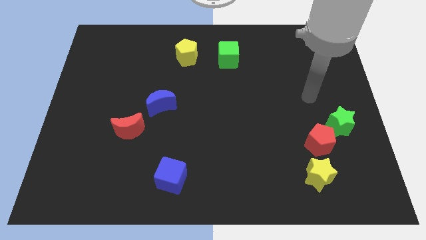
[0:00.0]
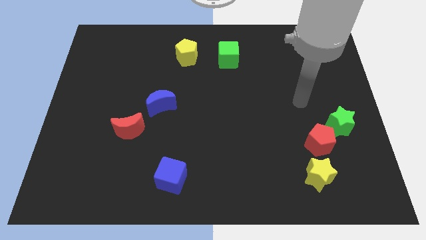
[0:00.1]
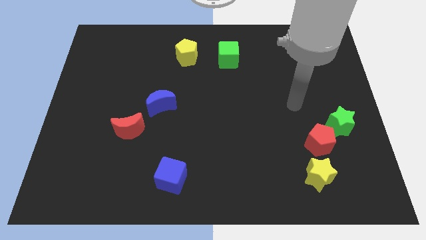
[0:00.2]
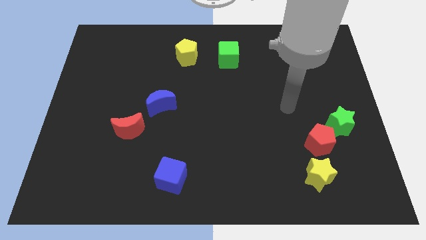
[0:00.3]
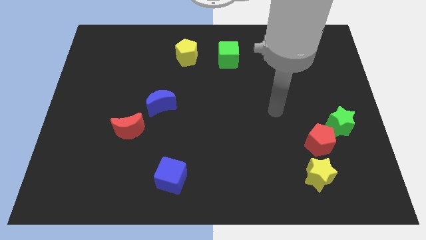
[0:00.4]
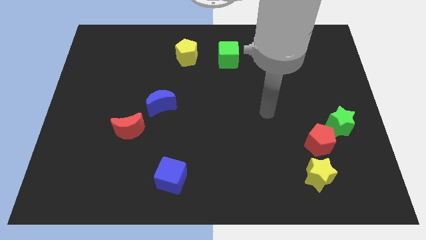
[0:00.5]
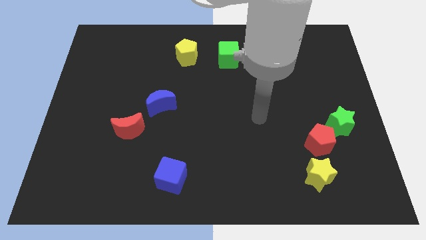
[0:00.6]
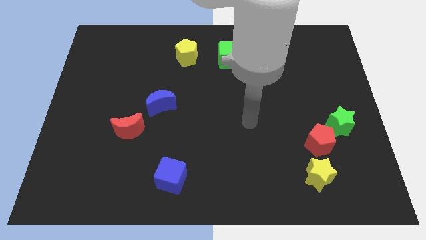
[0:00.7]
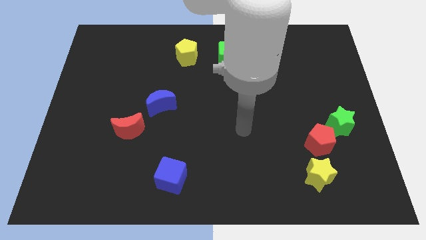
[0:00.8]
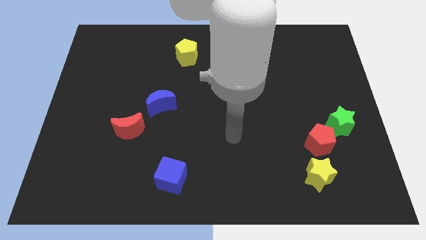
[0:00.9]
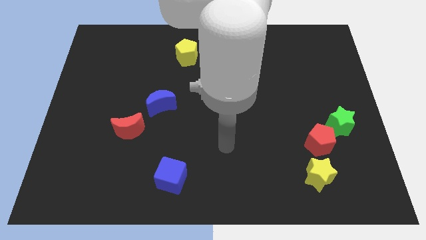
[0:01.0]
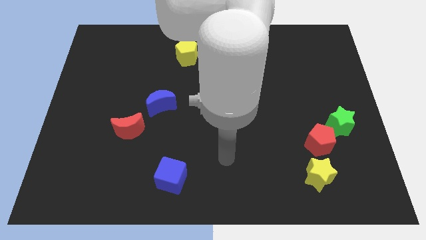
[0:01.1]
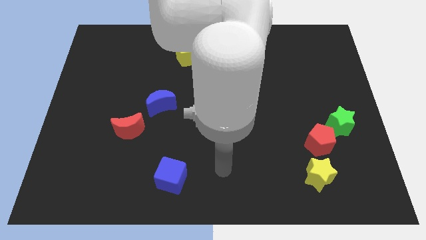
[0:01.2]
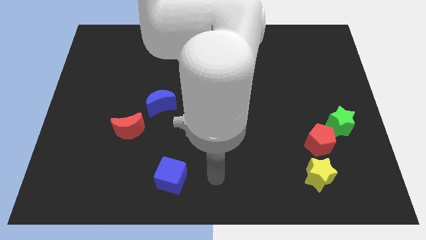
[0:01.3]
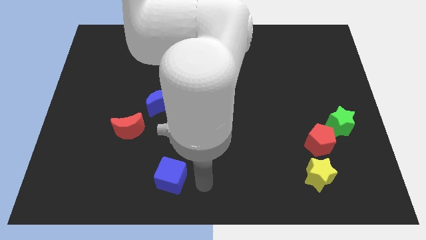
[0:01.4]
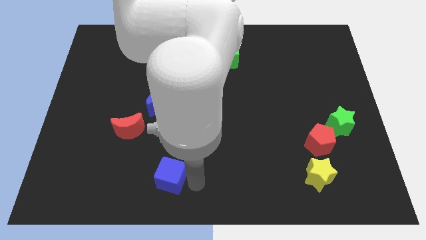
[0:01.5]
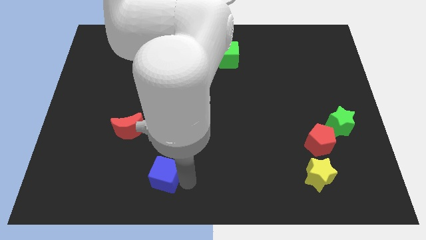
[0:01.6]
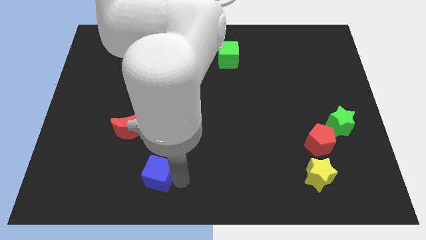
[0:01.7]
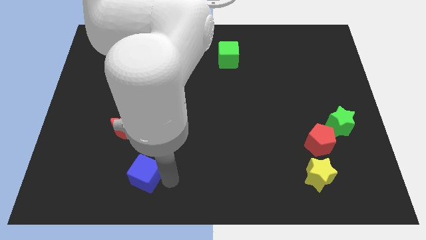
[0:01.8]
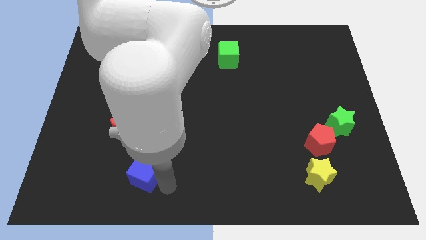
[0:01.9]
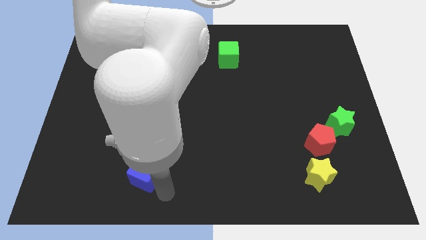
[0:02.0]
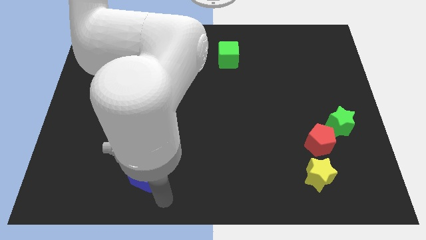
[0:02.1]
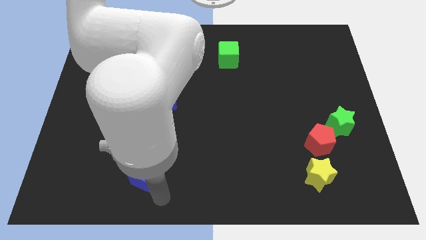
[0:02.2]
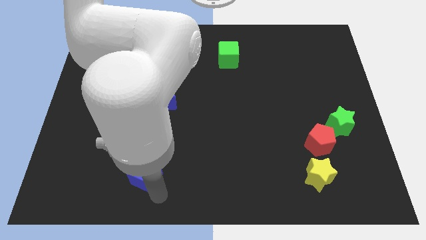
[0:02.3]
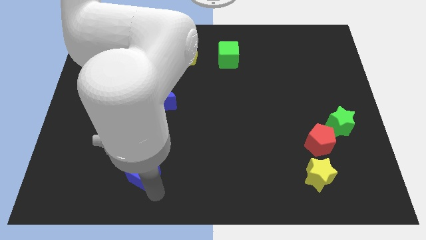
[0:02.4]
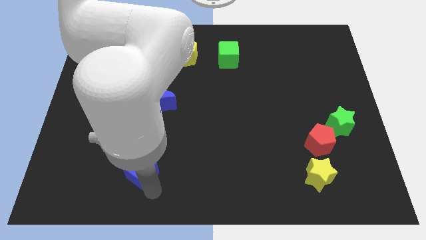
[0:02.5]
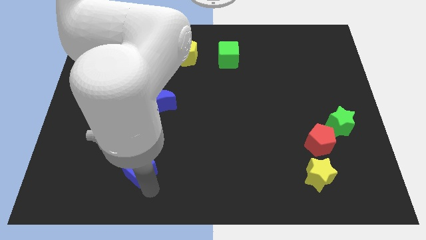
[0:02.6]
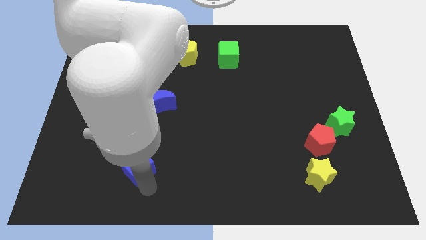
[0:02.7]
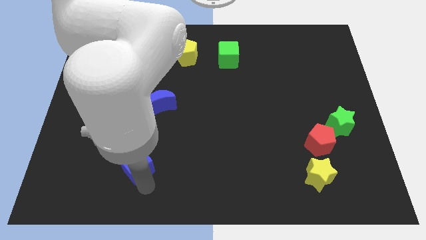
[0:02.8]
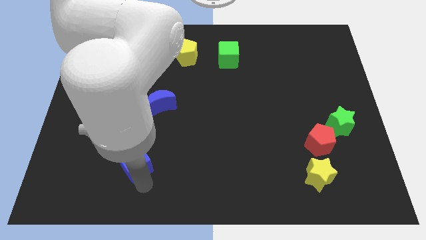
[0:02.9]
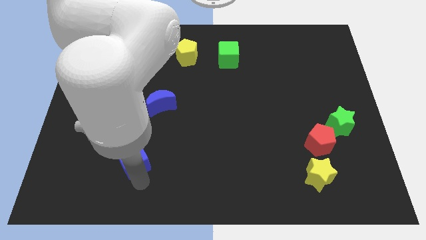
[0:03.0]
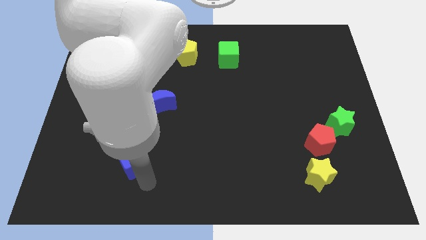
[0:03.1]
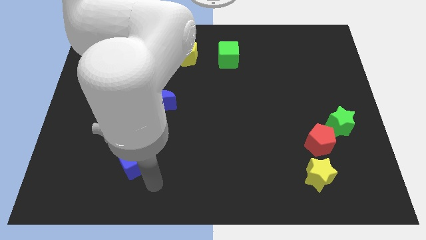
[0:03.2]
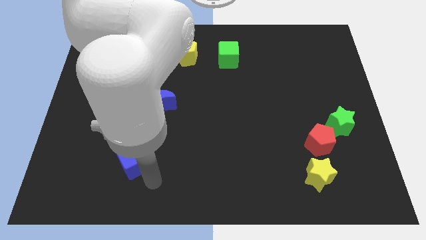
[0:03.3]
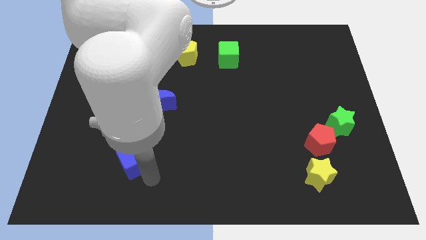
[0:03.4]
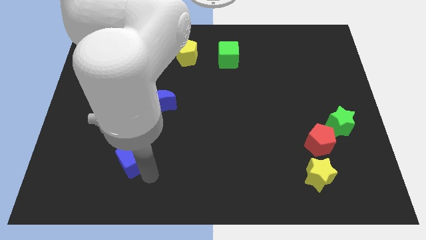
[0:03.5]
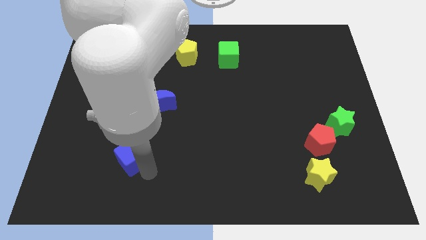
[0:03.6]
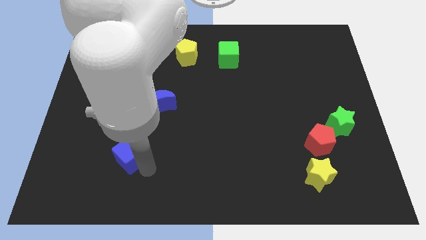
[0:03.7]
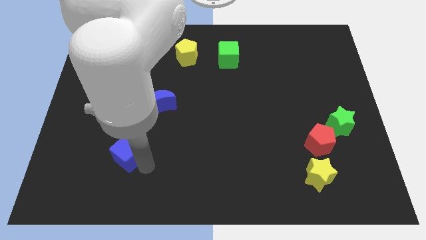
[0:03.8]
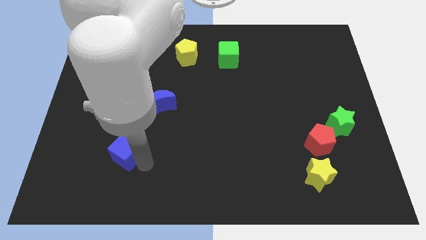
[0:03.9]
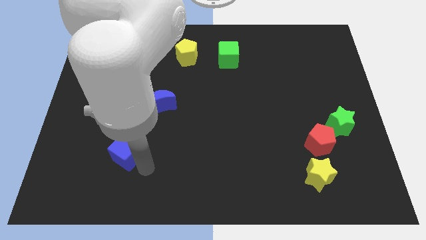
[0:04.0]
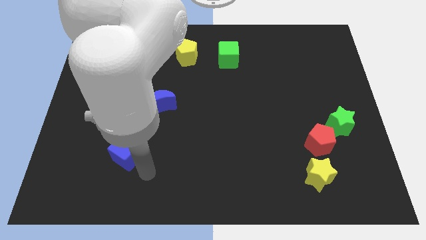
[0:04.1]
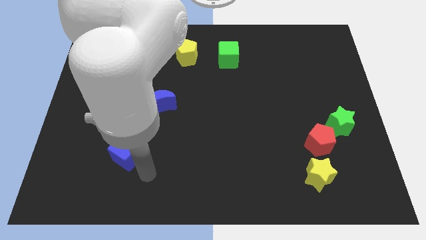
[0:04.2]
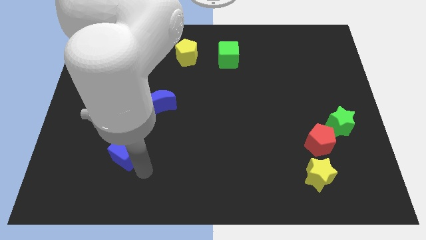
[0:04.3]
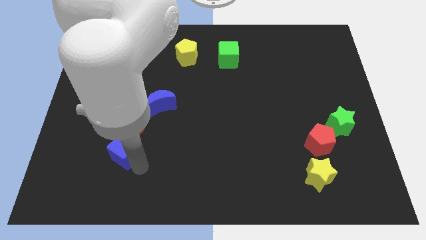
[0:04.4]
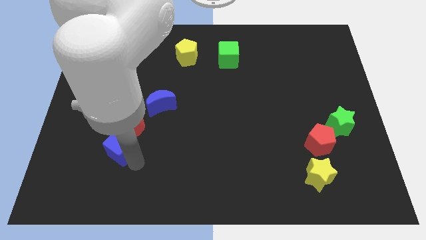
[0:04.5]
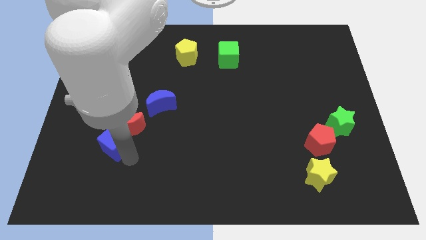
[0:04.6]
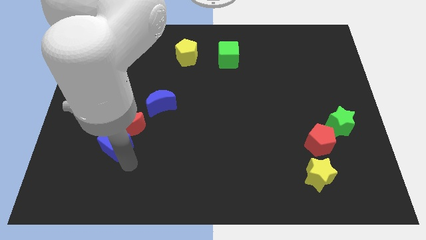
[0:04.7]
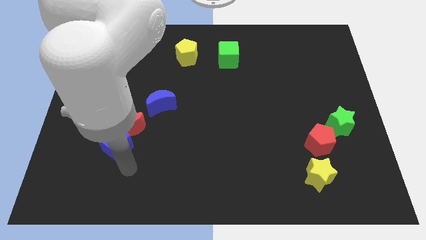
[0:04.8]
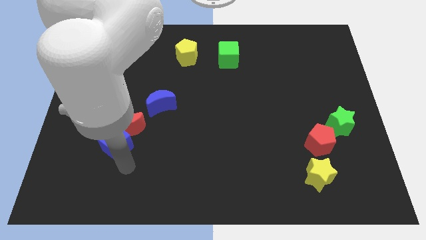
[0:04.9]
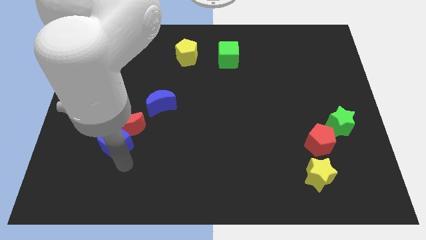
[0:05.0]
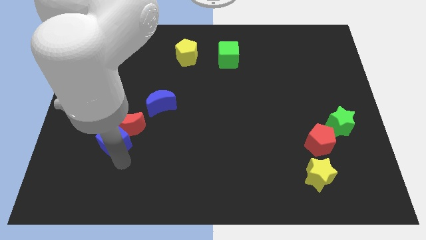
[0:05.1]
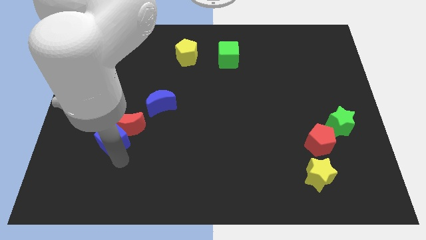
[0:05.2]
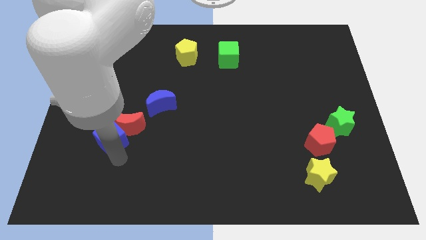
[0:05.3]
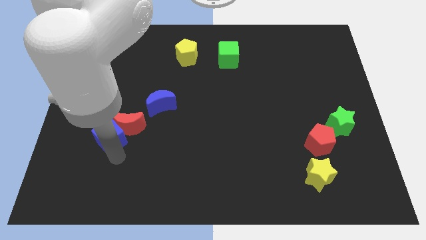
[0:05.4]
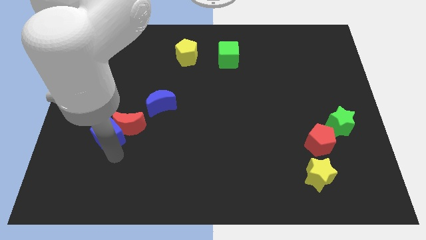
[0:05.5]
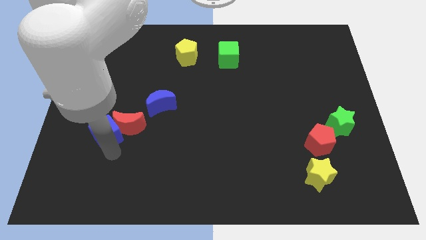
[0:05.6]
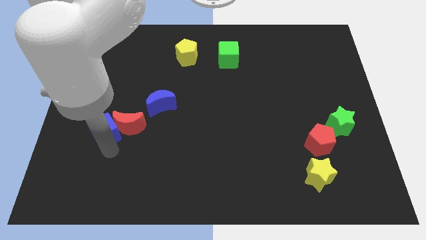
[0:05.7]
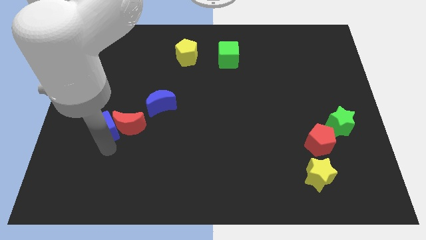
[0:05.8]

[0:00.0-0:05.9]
move the blue cube to the top left of the red moon

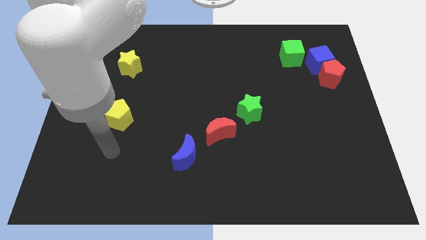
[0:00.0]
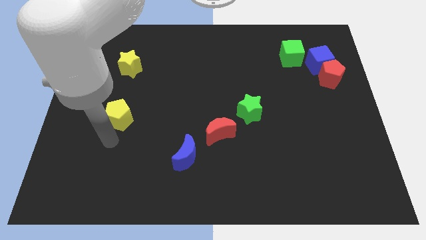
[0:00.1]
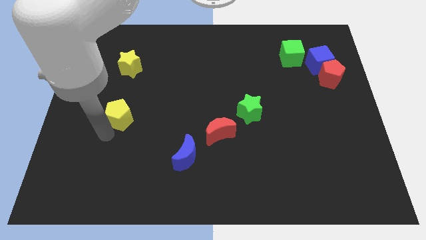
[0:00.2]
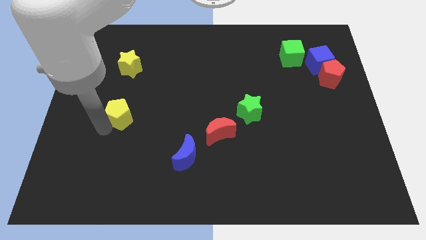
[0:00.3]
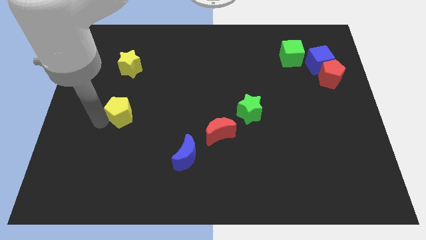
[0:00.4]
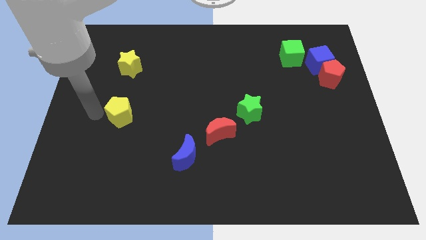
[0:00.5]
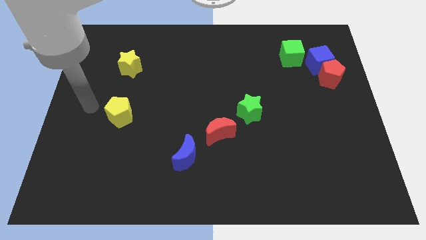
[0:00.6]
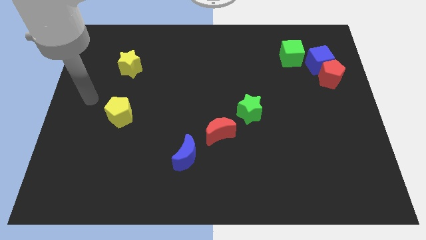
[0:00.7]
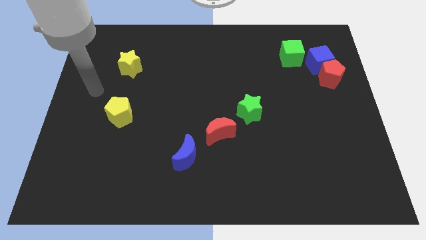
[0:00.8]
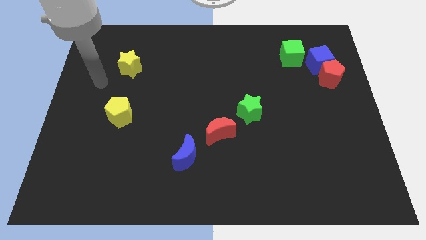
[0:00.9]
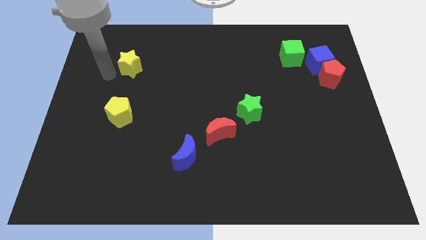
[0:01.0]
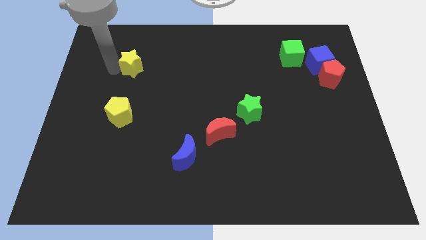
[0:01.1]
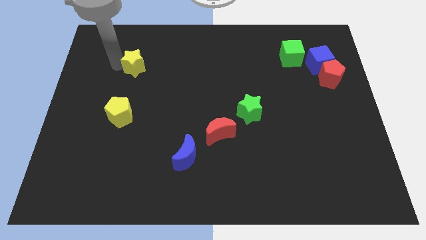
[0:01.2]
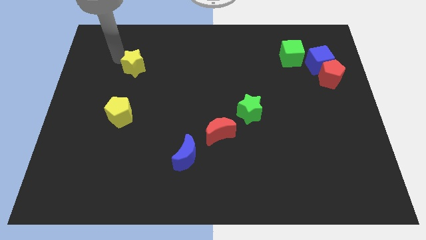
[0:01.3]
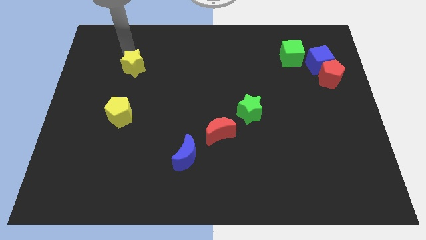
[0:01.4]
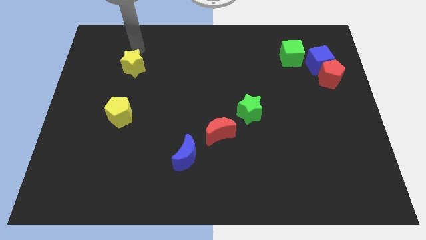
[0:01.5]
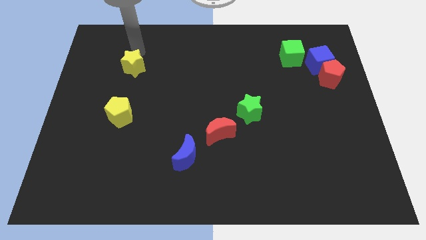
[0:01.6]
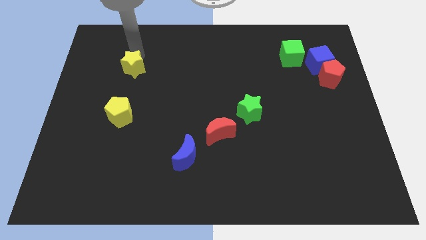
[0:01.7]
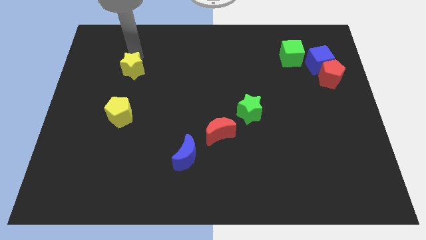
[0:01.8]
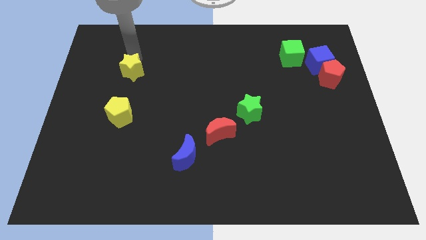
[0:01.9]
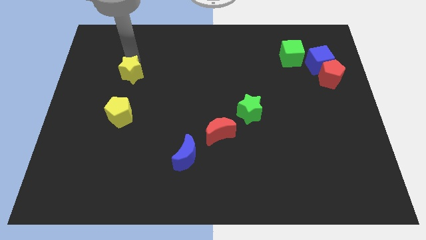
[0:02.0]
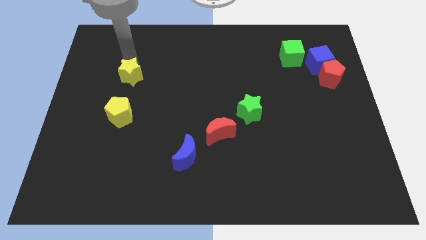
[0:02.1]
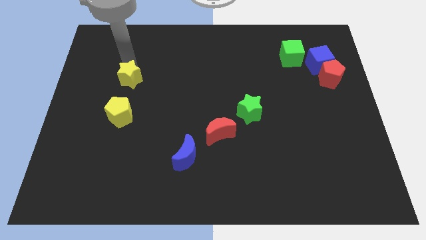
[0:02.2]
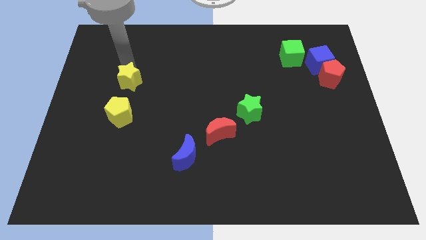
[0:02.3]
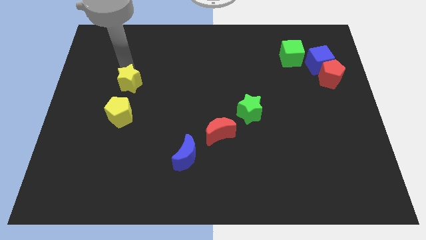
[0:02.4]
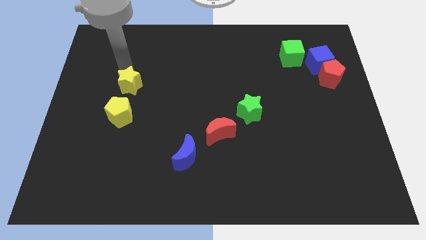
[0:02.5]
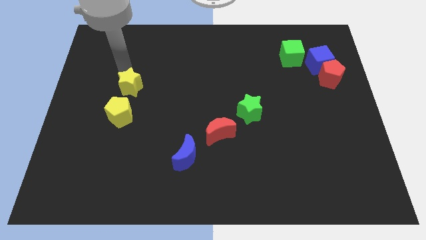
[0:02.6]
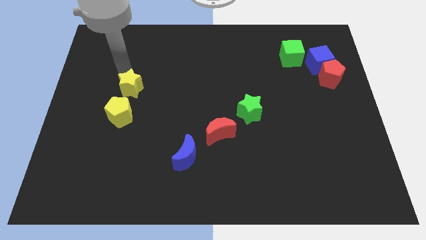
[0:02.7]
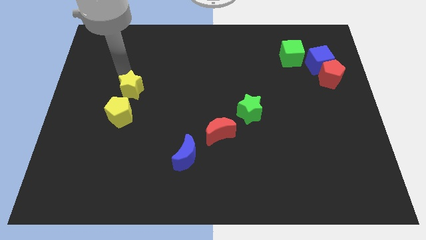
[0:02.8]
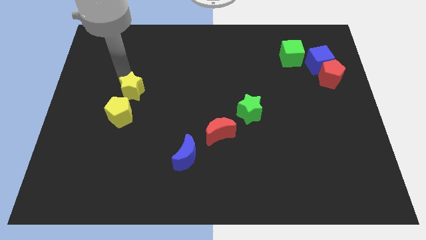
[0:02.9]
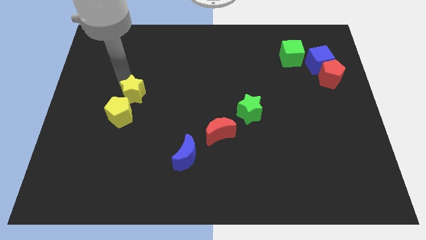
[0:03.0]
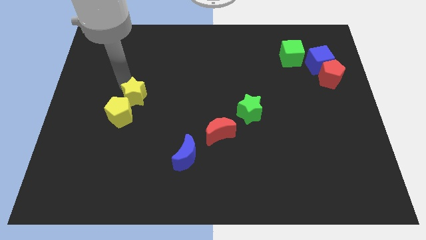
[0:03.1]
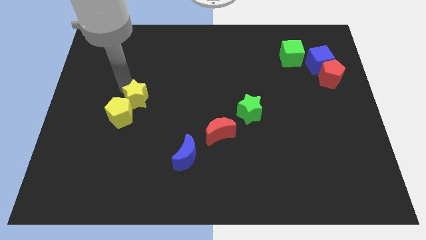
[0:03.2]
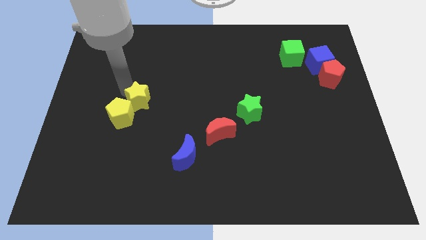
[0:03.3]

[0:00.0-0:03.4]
push the yellow star to the right side of the yellow pentagon
